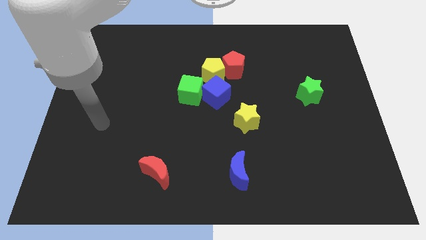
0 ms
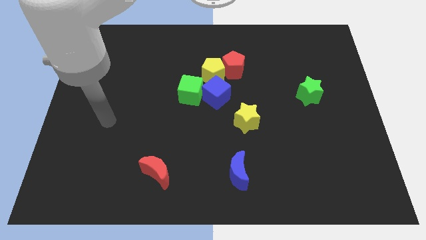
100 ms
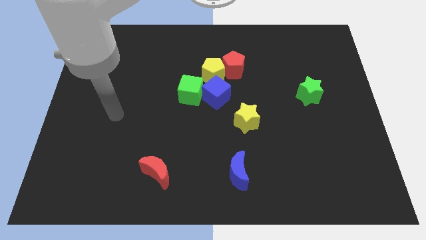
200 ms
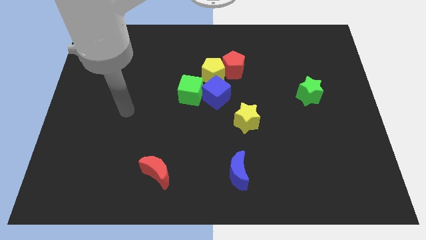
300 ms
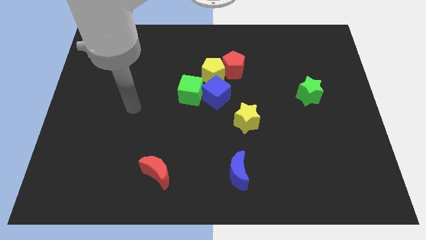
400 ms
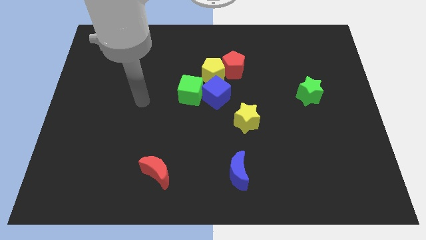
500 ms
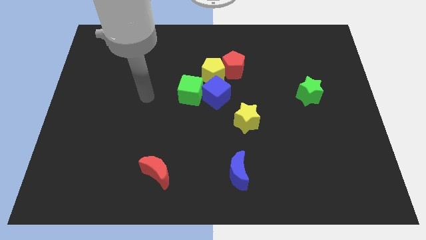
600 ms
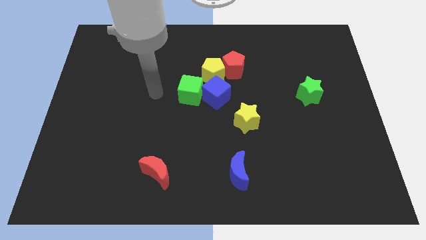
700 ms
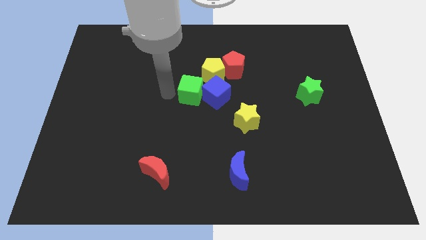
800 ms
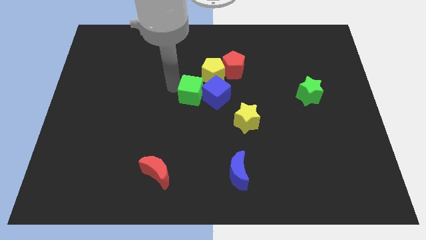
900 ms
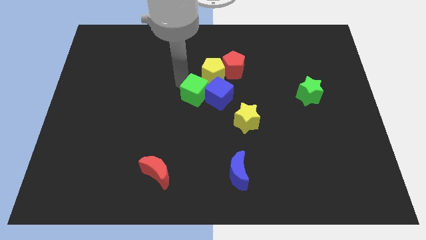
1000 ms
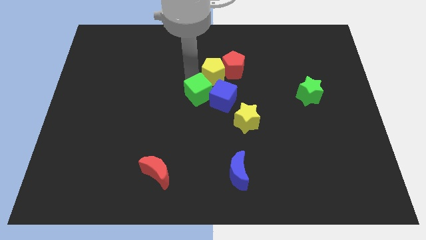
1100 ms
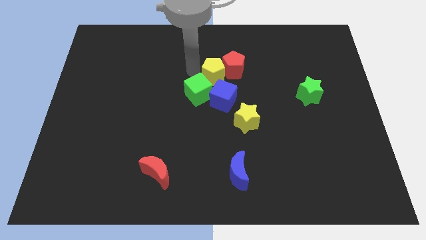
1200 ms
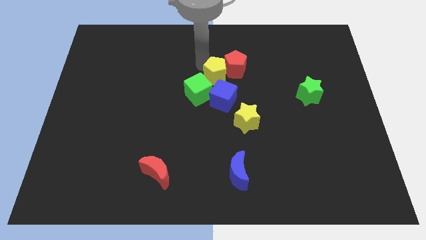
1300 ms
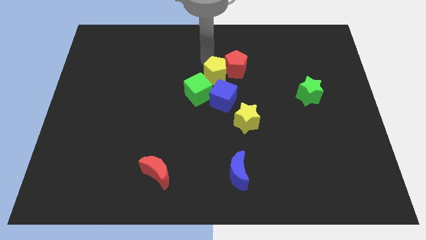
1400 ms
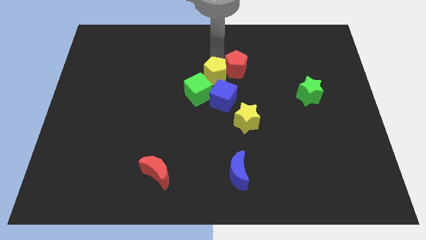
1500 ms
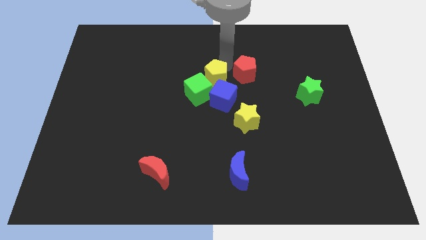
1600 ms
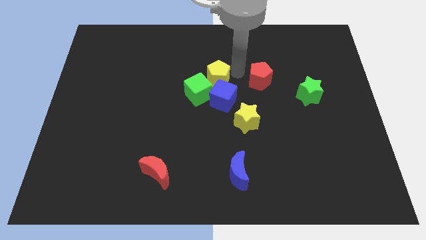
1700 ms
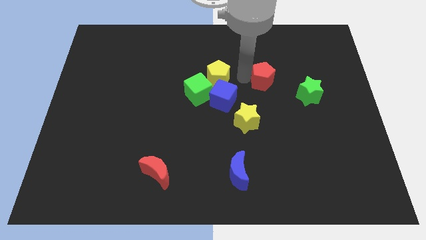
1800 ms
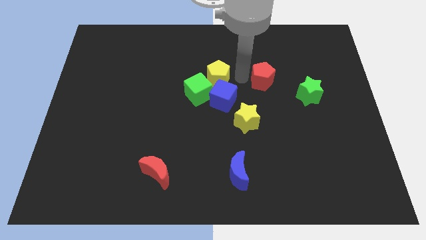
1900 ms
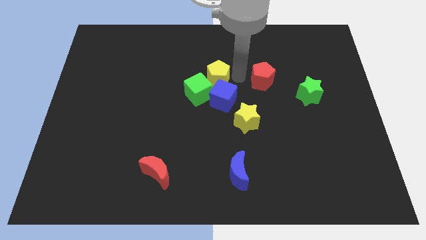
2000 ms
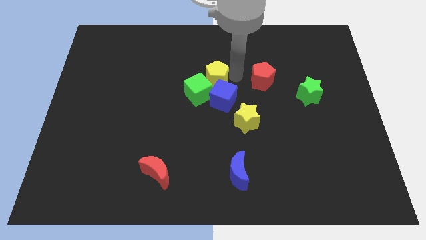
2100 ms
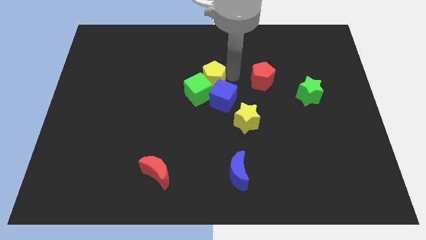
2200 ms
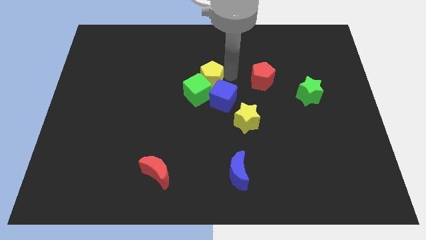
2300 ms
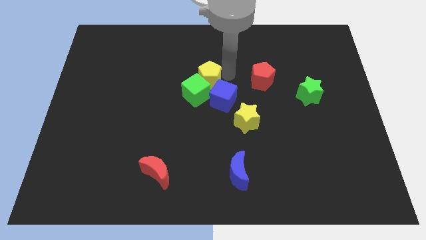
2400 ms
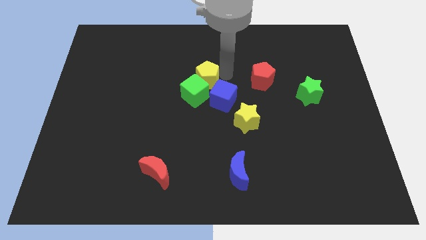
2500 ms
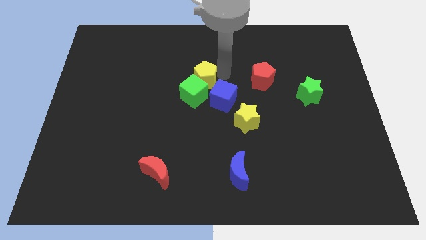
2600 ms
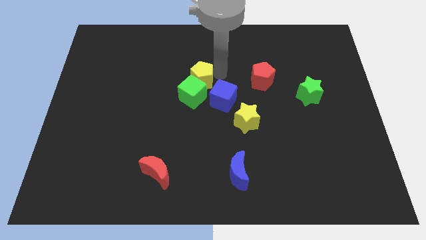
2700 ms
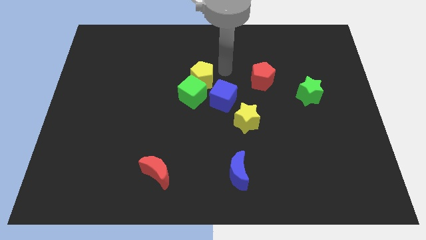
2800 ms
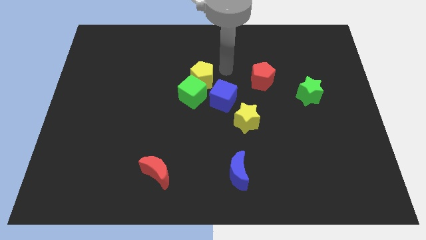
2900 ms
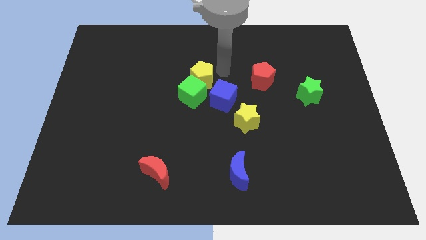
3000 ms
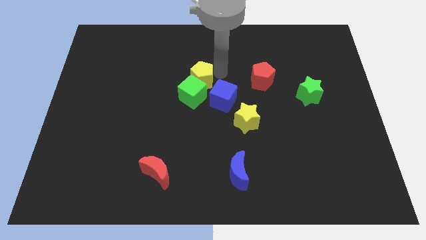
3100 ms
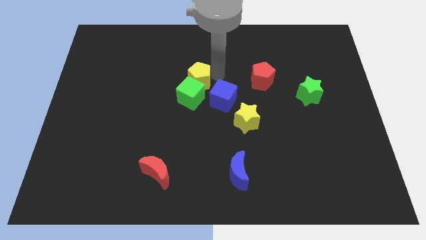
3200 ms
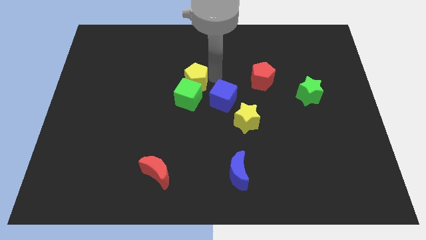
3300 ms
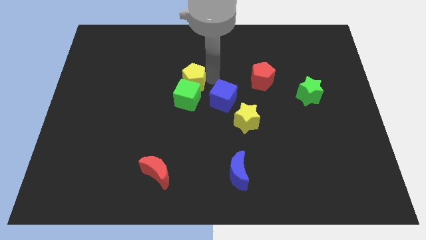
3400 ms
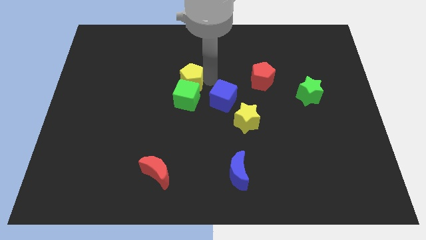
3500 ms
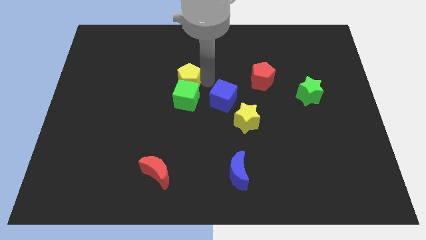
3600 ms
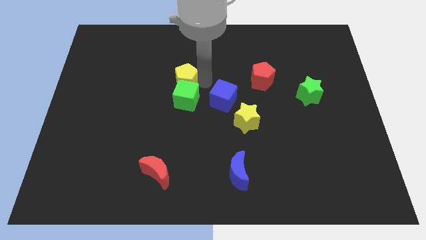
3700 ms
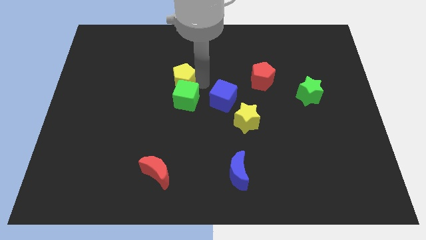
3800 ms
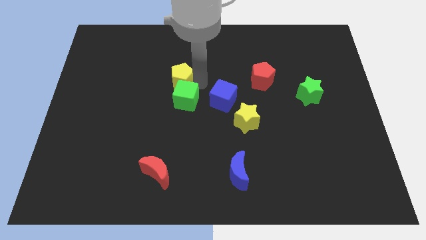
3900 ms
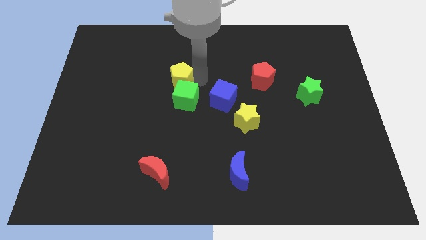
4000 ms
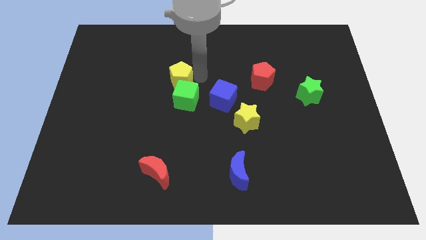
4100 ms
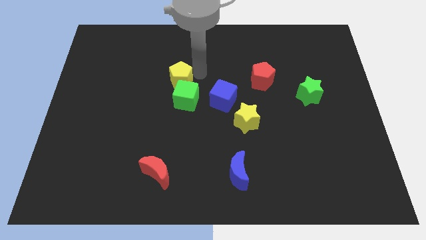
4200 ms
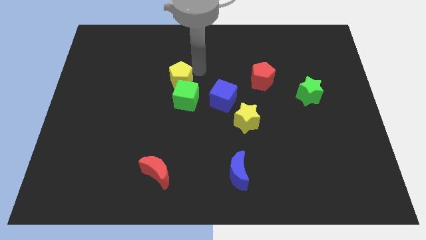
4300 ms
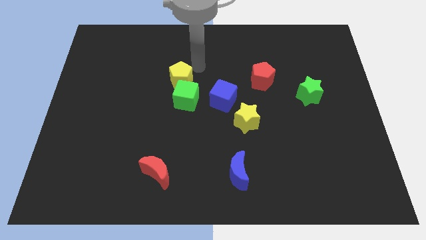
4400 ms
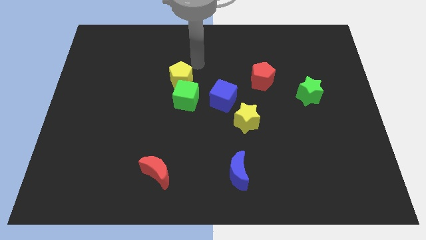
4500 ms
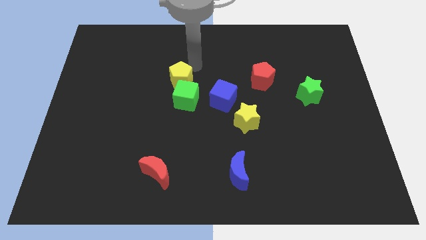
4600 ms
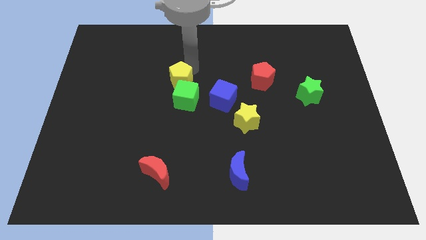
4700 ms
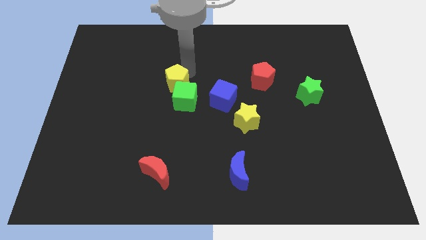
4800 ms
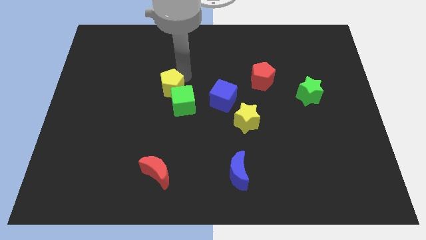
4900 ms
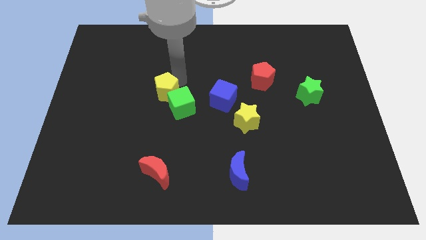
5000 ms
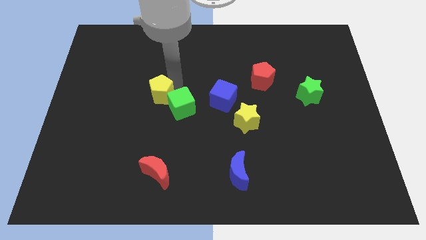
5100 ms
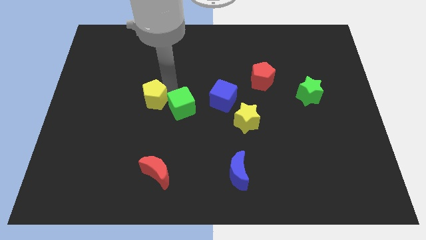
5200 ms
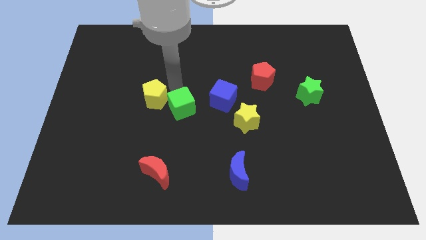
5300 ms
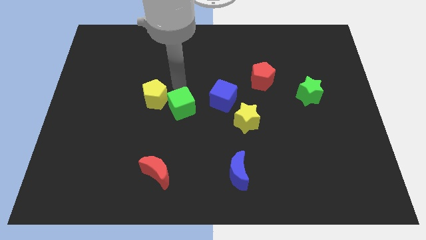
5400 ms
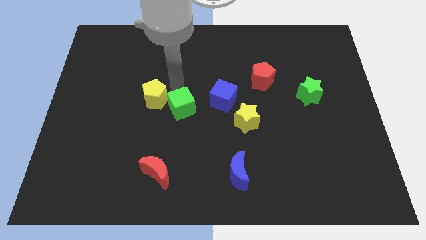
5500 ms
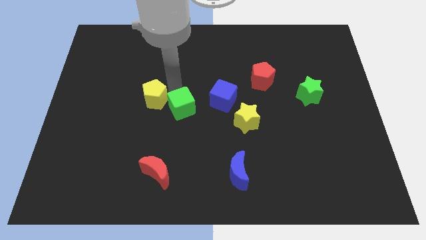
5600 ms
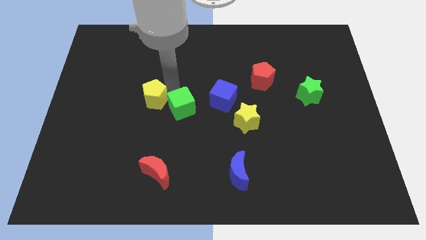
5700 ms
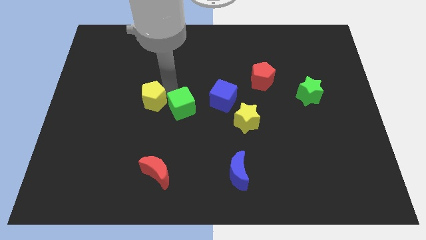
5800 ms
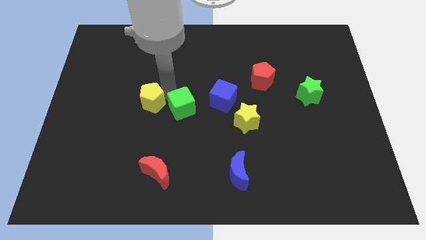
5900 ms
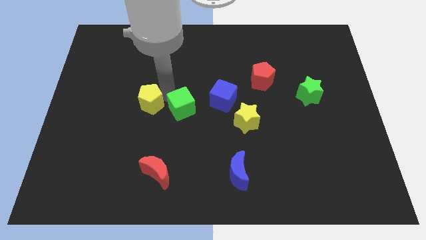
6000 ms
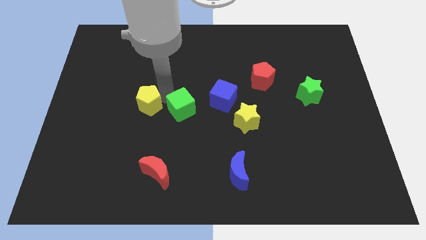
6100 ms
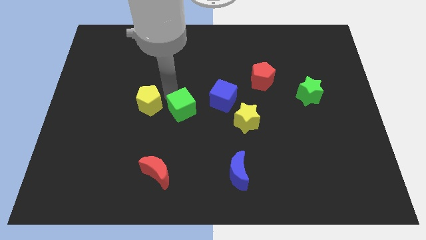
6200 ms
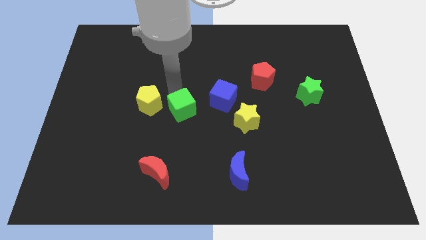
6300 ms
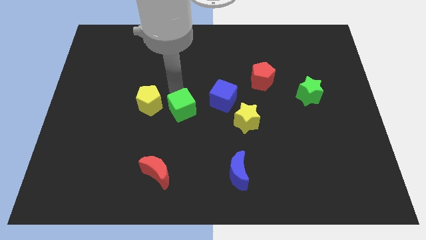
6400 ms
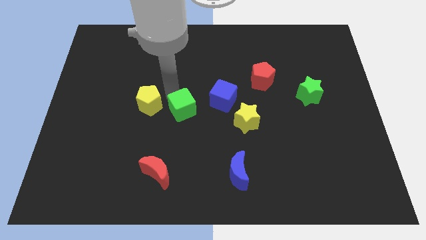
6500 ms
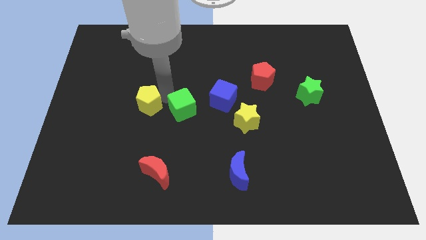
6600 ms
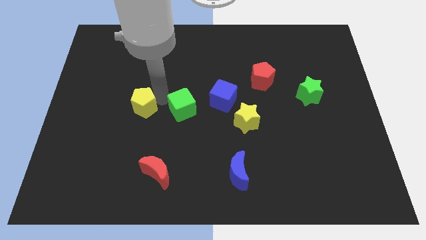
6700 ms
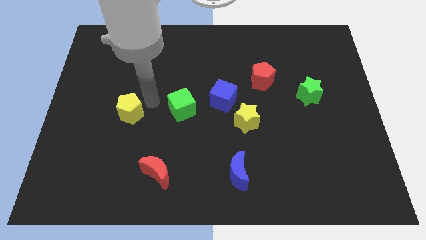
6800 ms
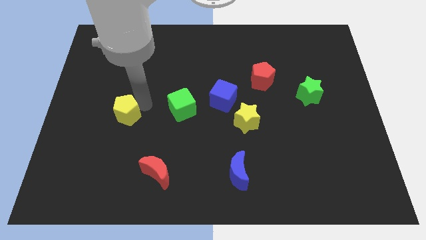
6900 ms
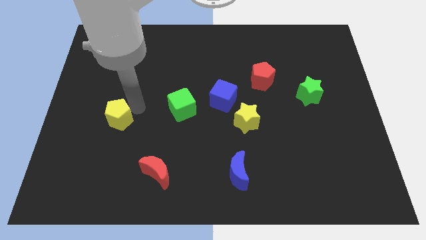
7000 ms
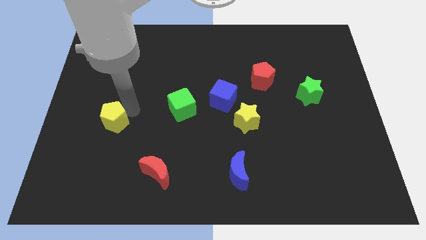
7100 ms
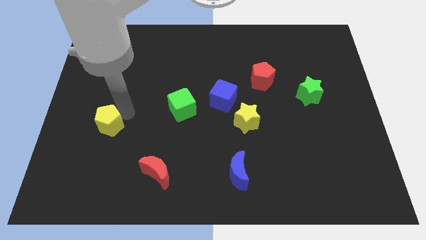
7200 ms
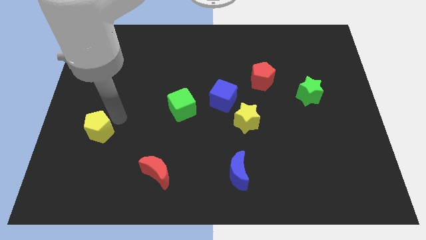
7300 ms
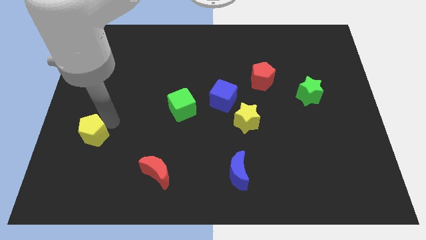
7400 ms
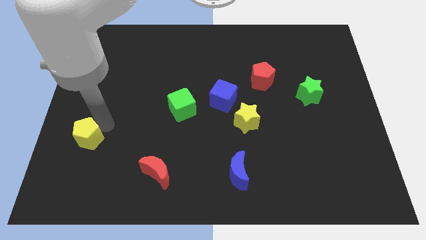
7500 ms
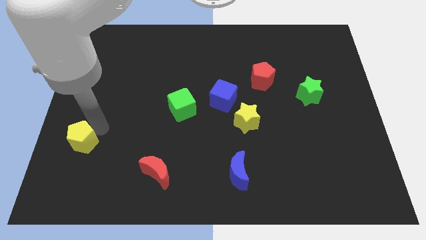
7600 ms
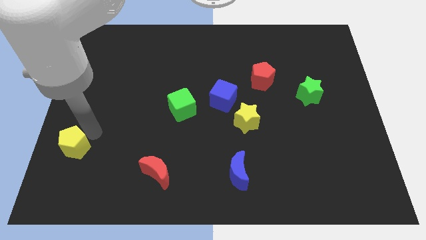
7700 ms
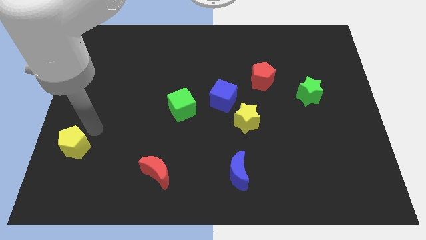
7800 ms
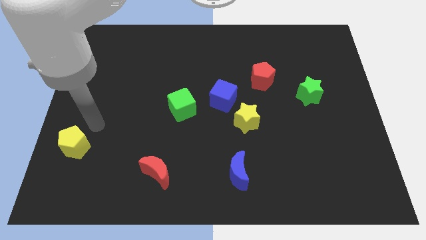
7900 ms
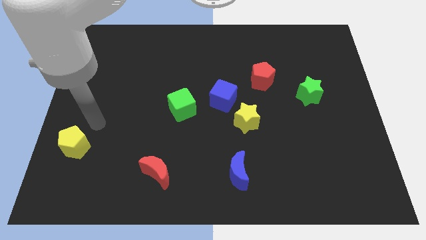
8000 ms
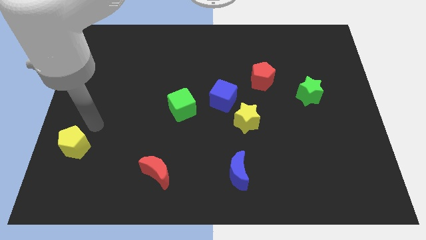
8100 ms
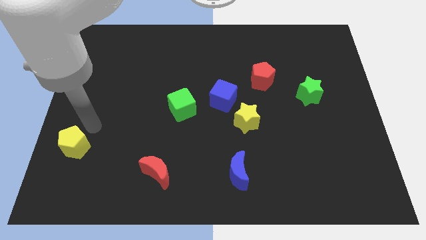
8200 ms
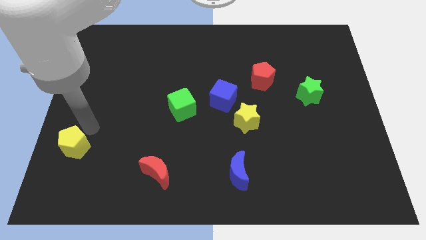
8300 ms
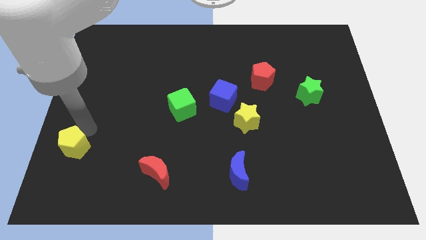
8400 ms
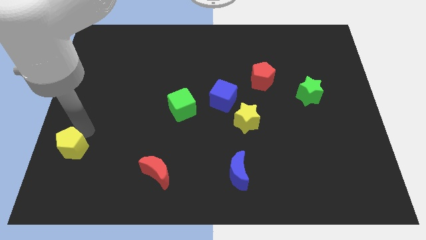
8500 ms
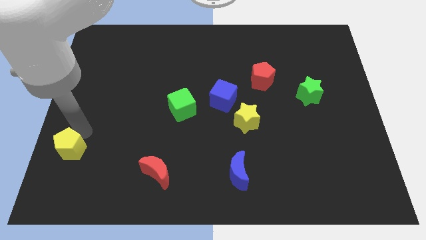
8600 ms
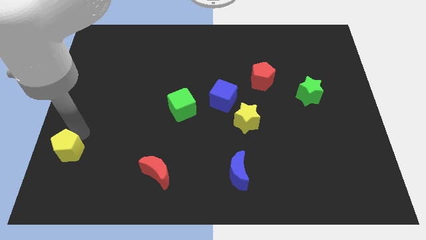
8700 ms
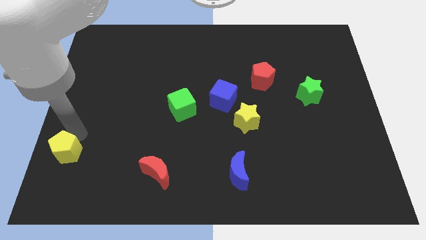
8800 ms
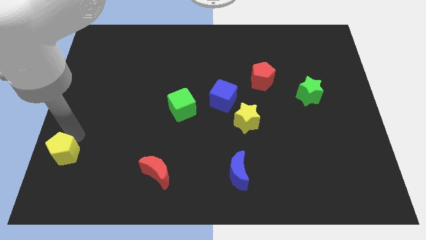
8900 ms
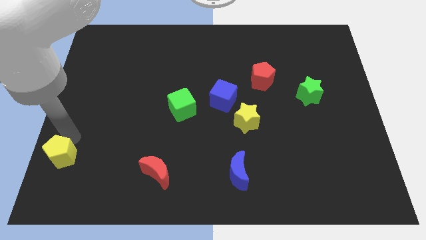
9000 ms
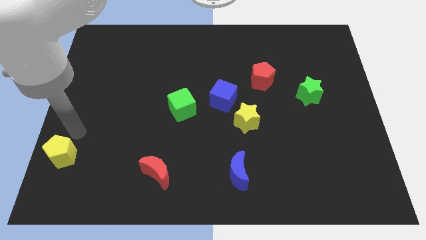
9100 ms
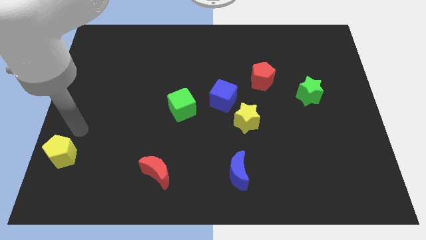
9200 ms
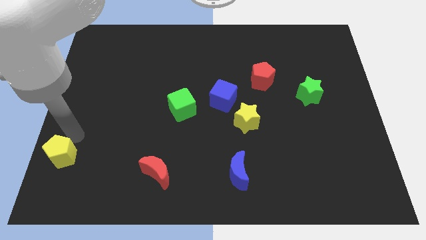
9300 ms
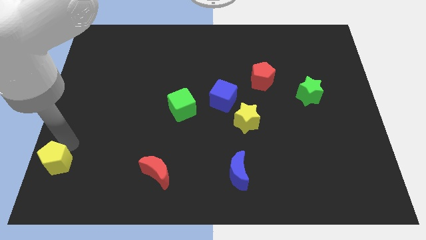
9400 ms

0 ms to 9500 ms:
slide the yellow pentagon to the bottom left corner
